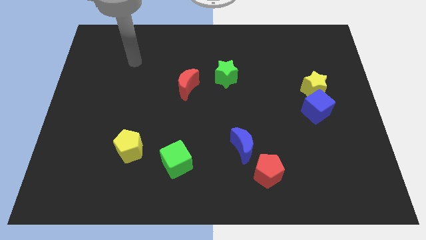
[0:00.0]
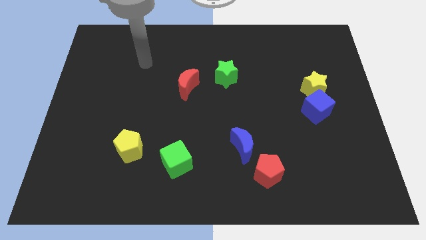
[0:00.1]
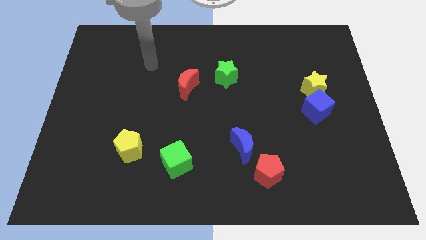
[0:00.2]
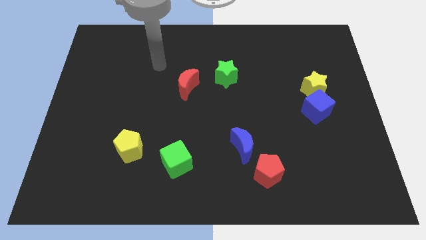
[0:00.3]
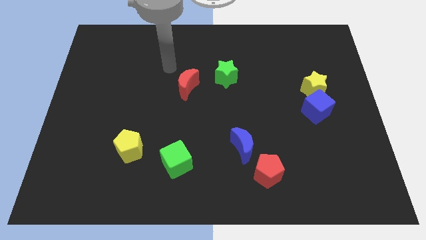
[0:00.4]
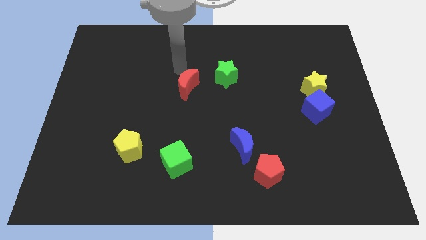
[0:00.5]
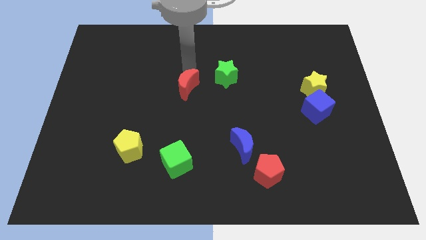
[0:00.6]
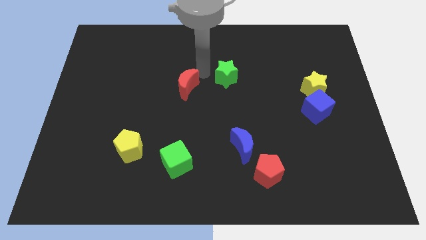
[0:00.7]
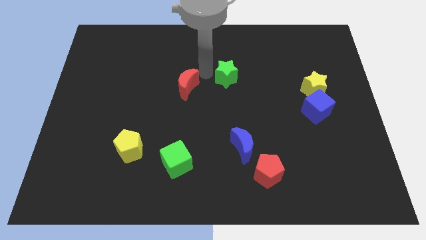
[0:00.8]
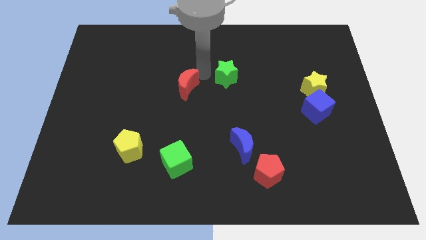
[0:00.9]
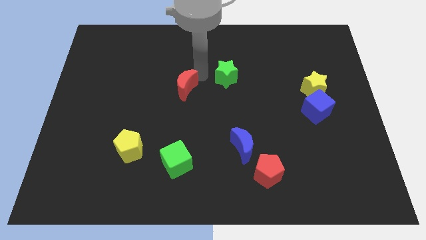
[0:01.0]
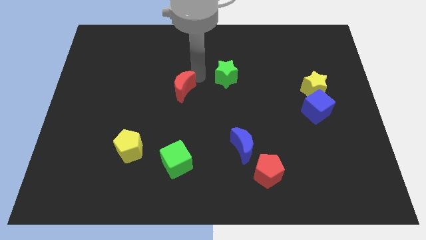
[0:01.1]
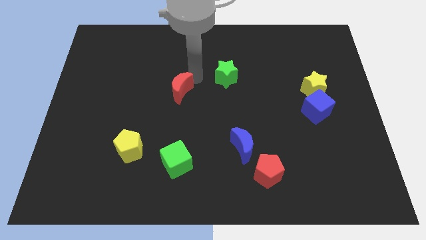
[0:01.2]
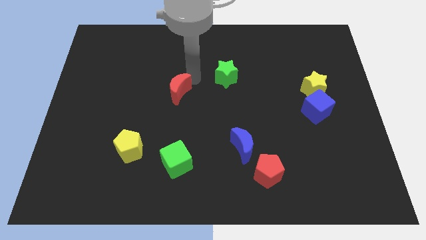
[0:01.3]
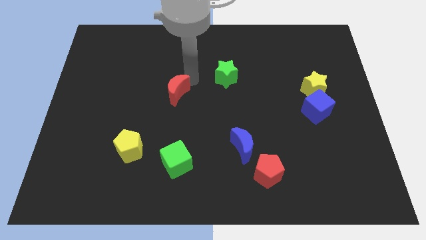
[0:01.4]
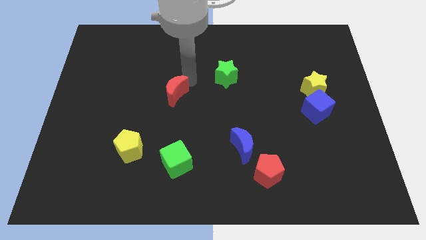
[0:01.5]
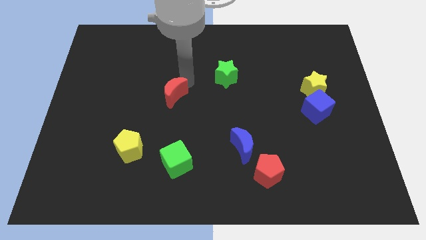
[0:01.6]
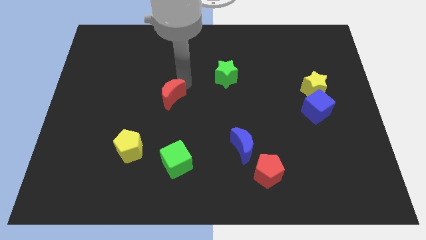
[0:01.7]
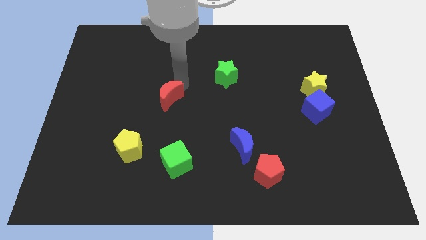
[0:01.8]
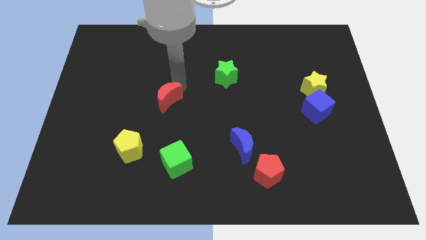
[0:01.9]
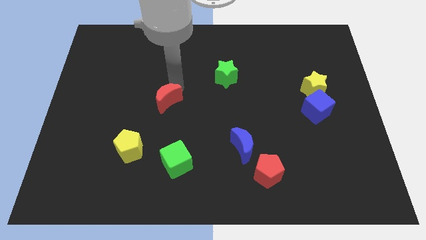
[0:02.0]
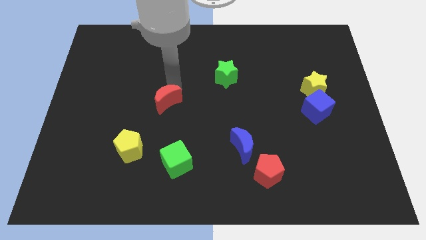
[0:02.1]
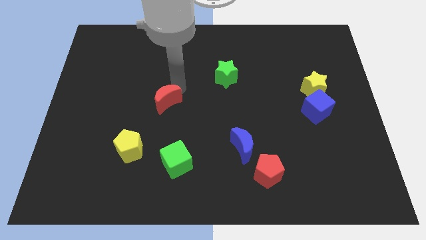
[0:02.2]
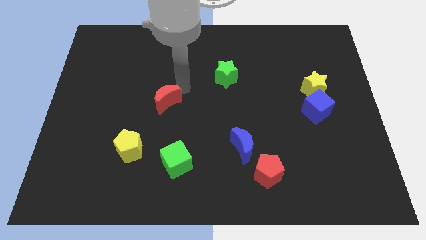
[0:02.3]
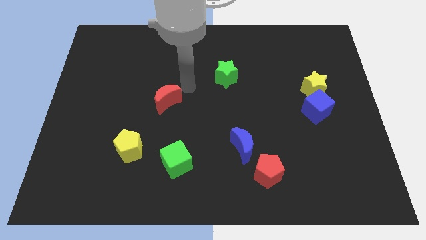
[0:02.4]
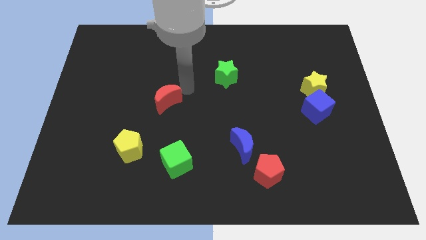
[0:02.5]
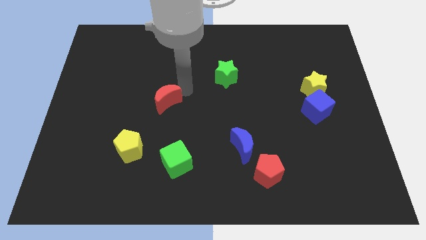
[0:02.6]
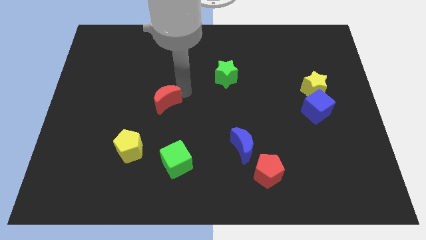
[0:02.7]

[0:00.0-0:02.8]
push the red moon downwards and left somewhat

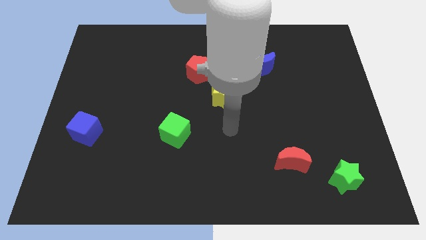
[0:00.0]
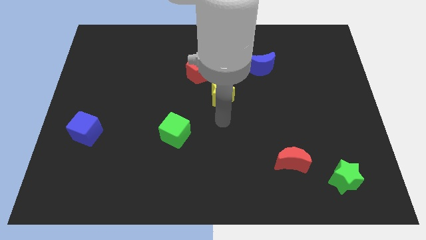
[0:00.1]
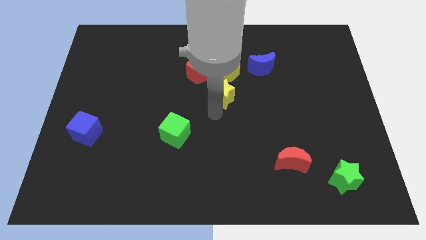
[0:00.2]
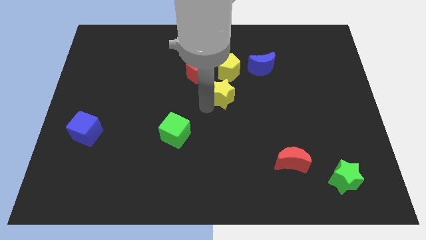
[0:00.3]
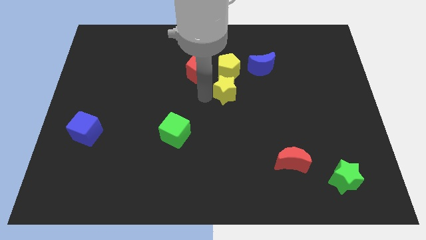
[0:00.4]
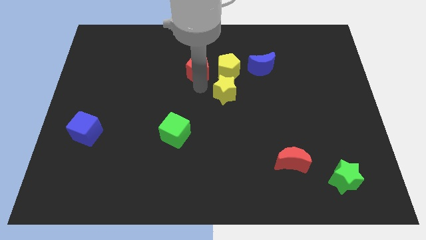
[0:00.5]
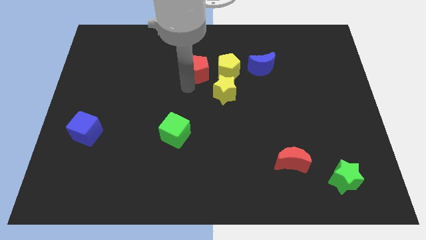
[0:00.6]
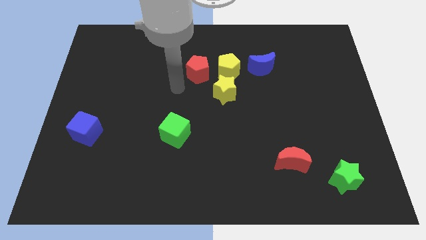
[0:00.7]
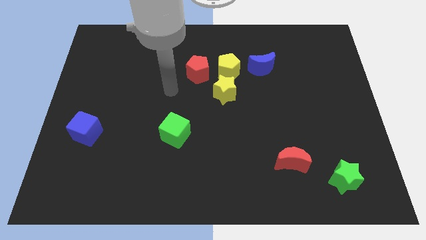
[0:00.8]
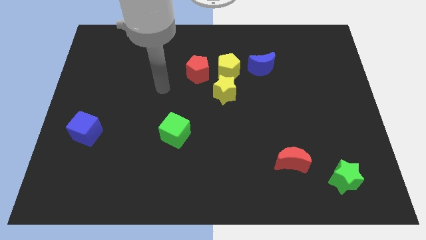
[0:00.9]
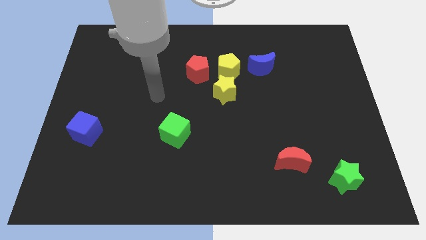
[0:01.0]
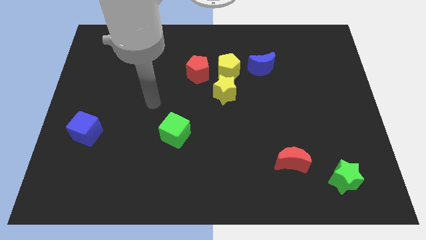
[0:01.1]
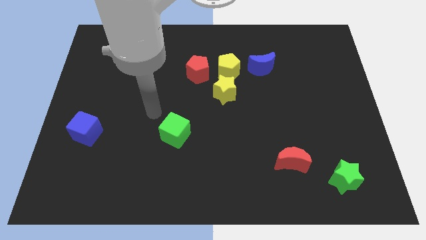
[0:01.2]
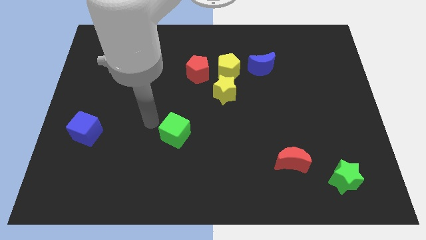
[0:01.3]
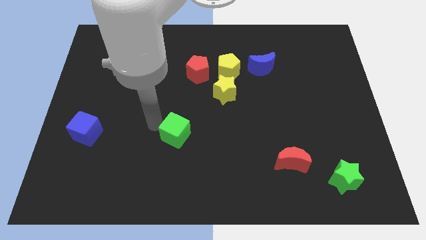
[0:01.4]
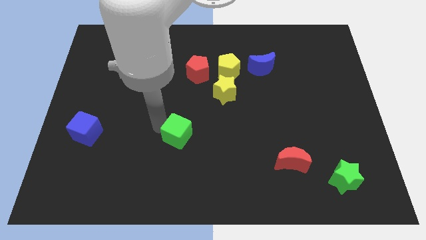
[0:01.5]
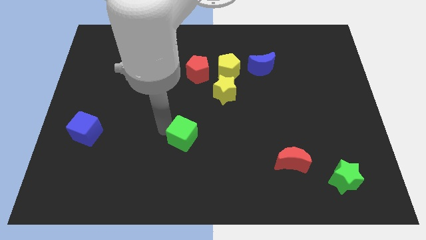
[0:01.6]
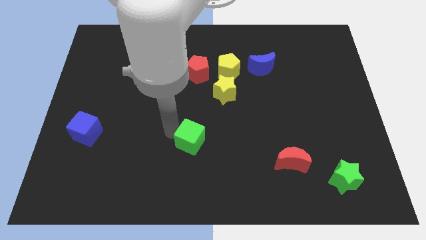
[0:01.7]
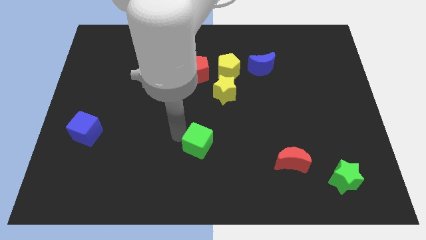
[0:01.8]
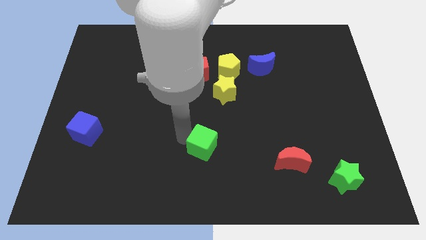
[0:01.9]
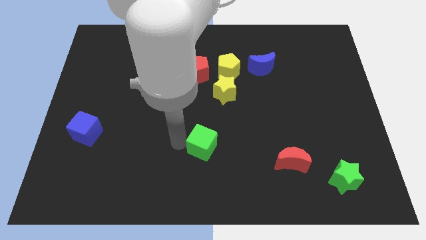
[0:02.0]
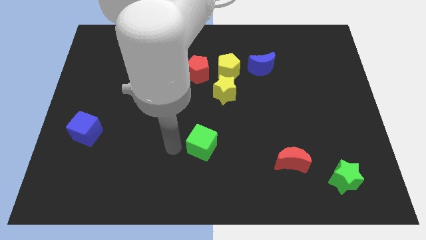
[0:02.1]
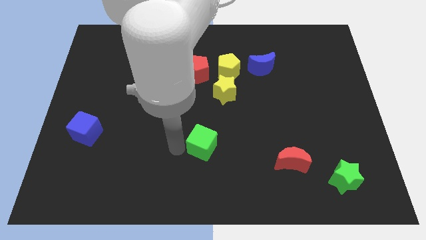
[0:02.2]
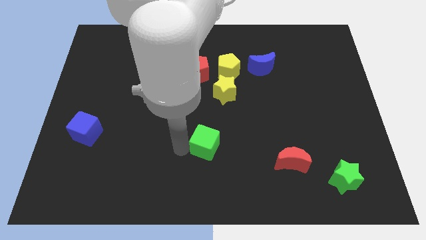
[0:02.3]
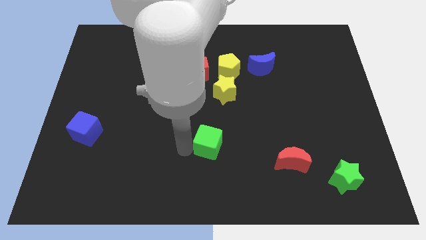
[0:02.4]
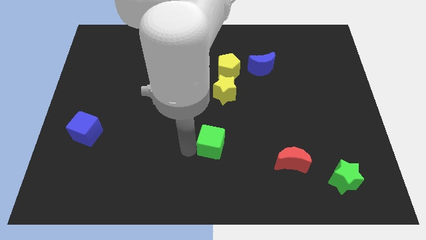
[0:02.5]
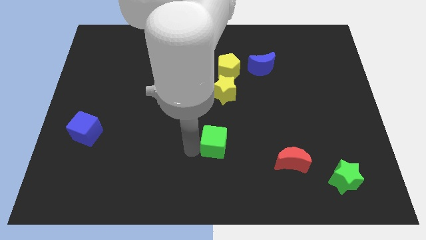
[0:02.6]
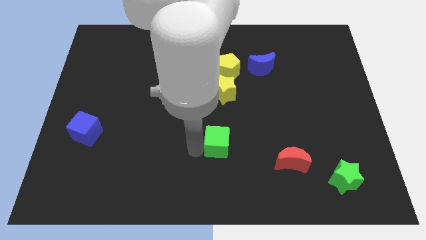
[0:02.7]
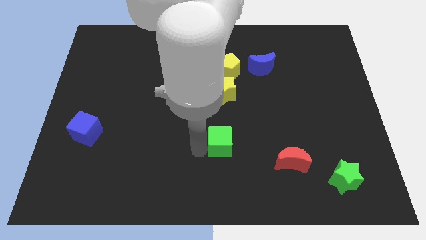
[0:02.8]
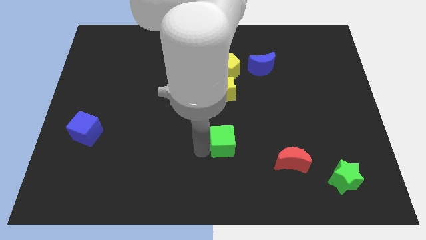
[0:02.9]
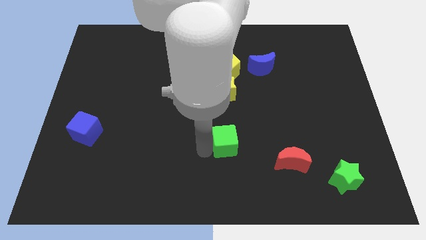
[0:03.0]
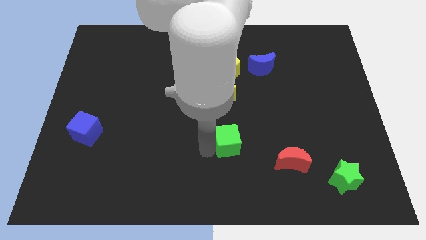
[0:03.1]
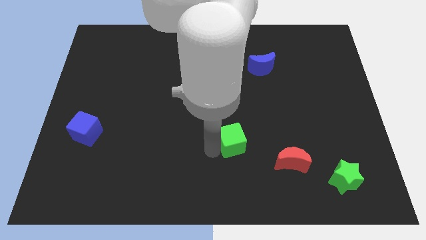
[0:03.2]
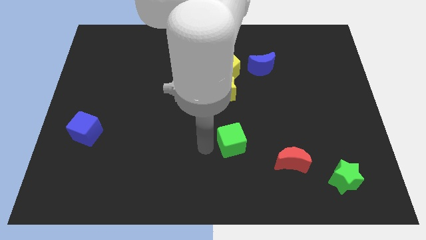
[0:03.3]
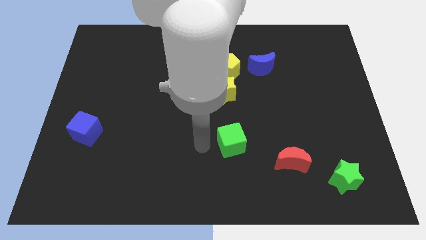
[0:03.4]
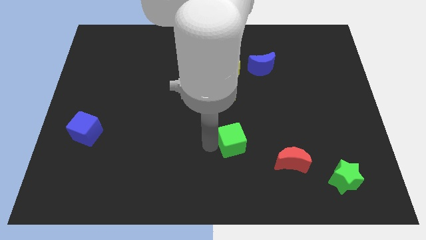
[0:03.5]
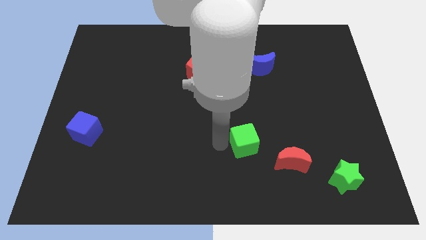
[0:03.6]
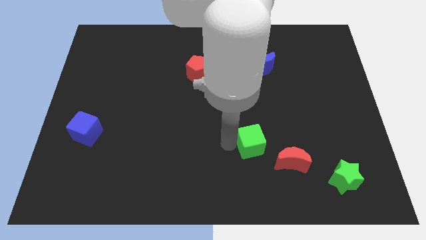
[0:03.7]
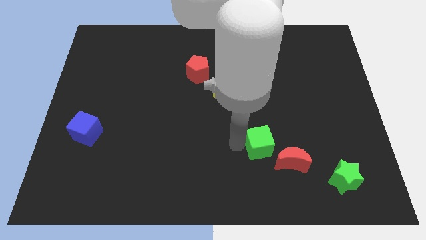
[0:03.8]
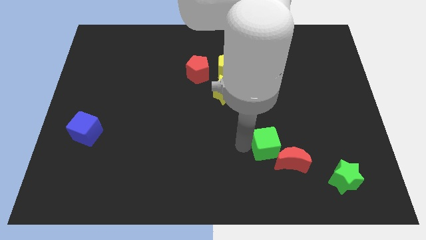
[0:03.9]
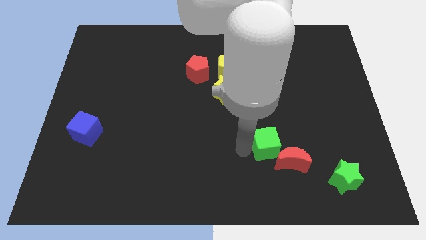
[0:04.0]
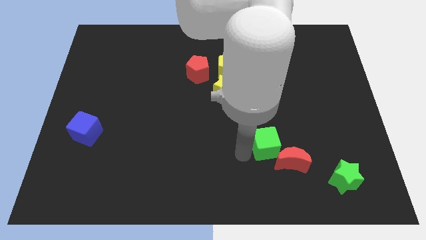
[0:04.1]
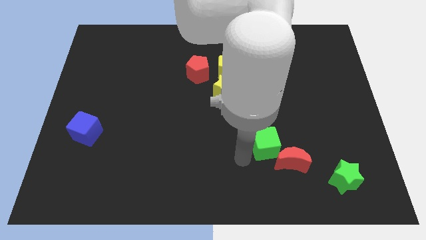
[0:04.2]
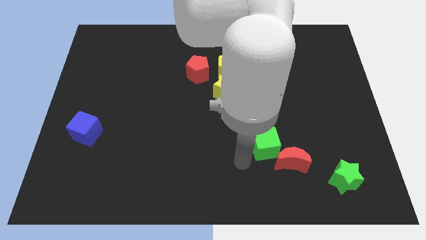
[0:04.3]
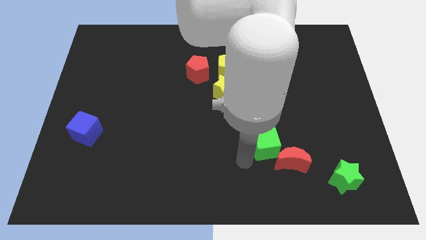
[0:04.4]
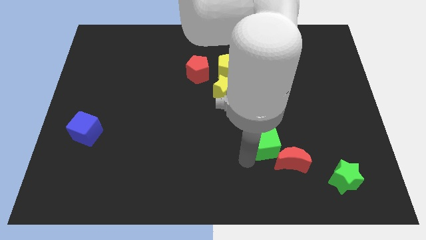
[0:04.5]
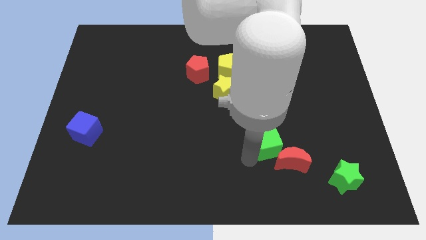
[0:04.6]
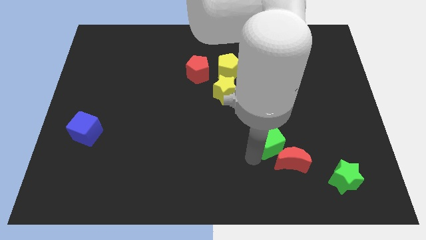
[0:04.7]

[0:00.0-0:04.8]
push the green cube right

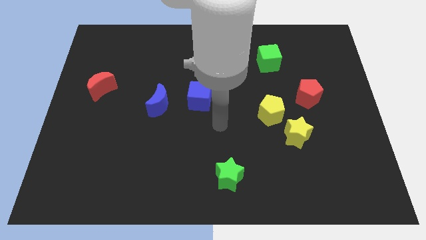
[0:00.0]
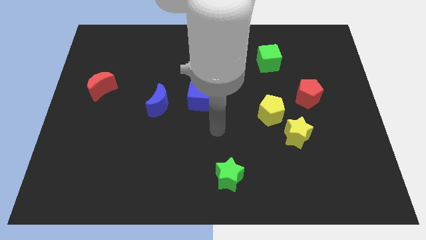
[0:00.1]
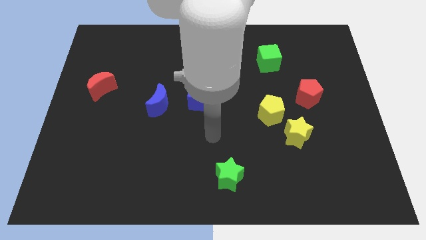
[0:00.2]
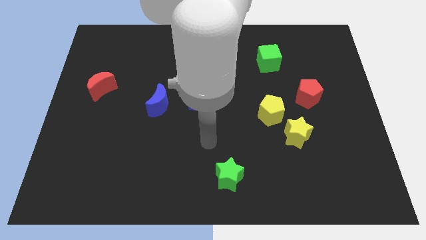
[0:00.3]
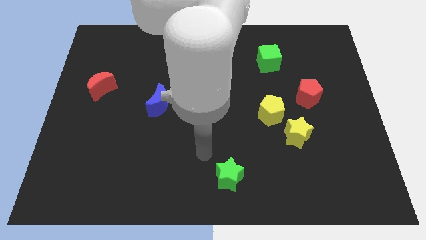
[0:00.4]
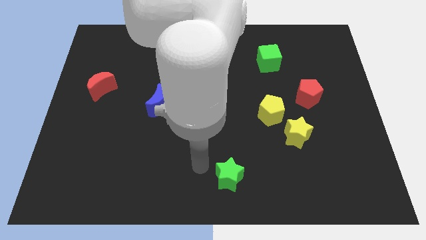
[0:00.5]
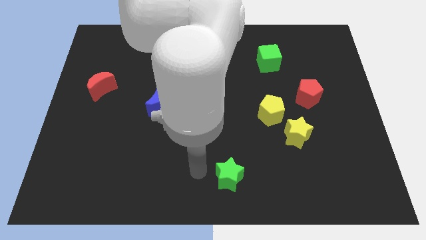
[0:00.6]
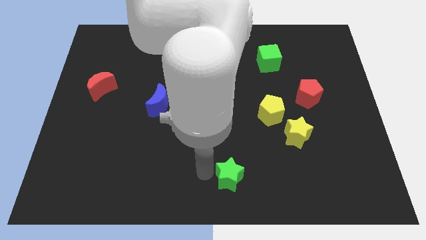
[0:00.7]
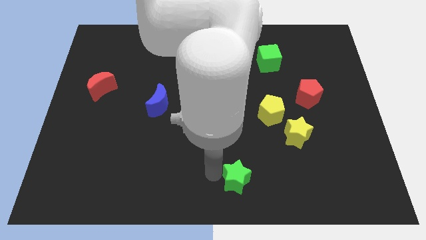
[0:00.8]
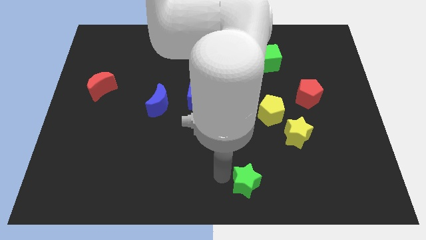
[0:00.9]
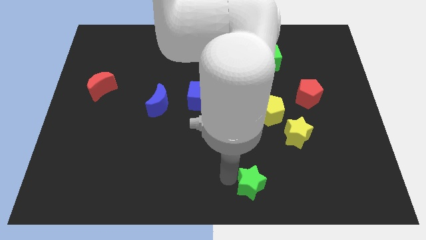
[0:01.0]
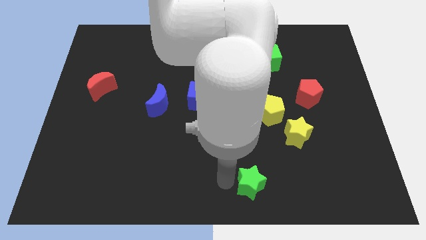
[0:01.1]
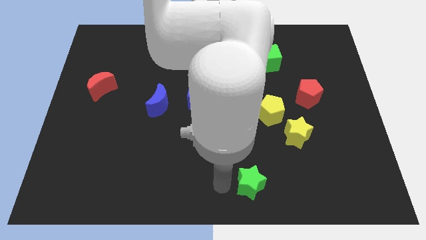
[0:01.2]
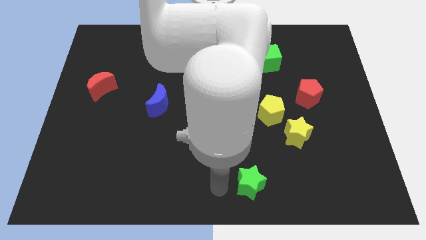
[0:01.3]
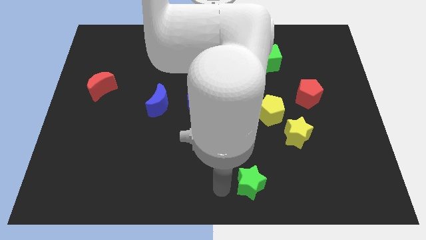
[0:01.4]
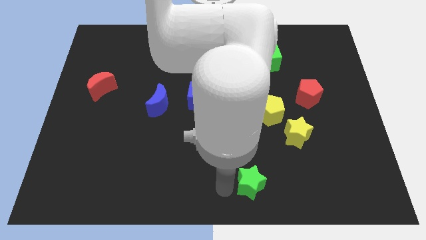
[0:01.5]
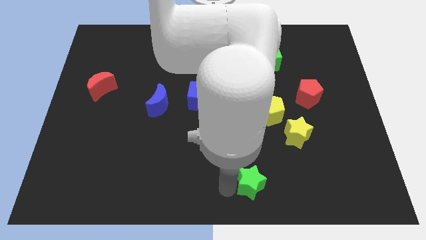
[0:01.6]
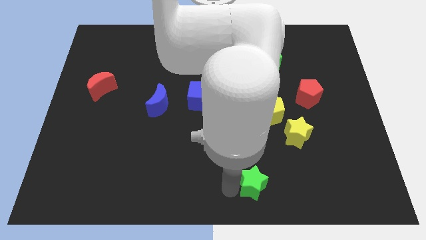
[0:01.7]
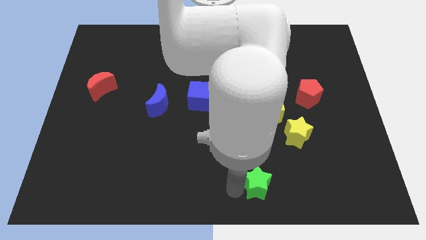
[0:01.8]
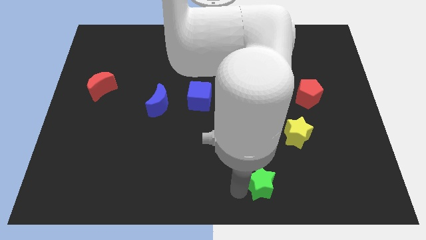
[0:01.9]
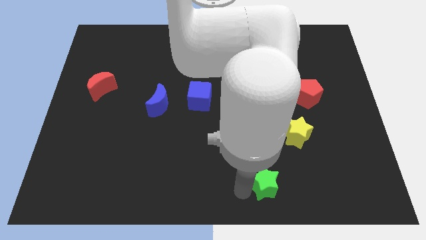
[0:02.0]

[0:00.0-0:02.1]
slightly slide the green star right
